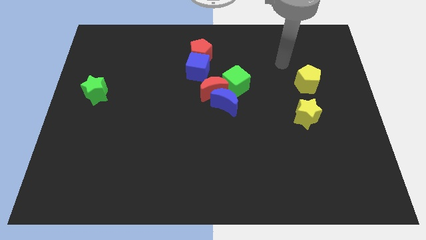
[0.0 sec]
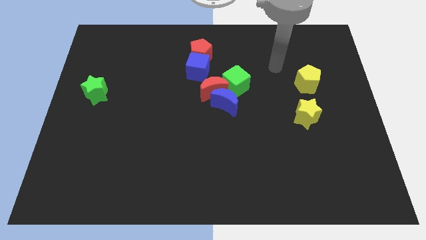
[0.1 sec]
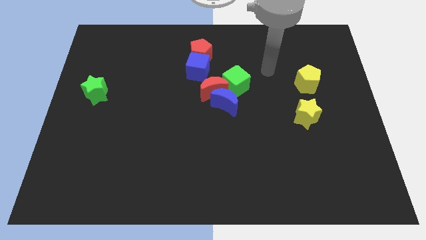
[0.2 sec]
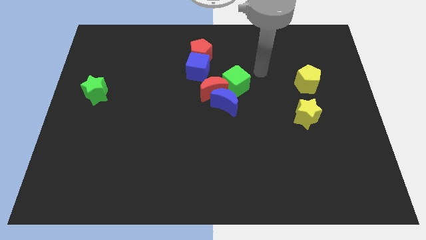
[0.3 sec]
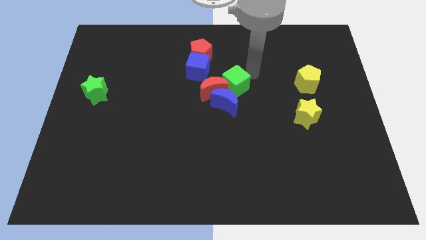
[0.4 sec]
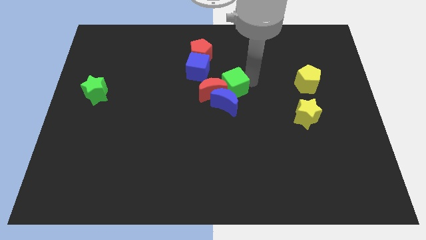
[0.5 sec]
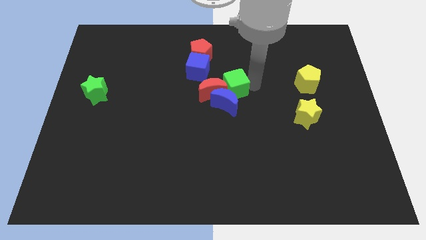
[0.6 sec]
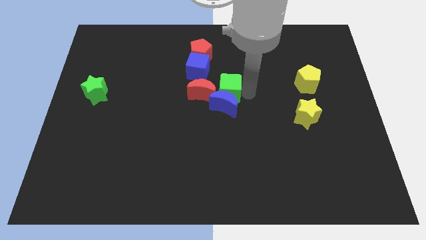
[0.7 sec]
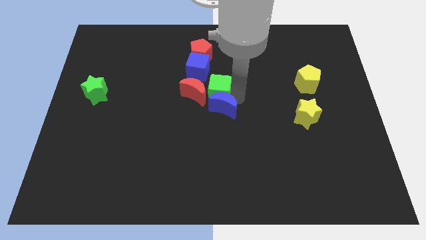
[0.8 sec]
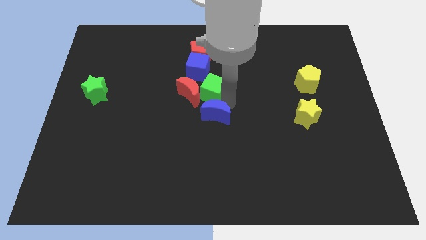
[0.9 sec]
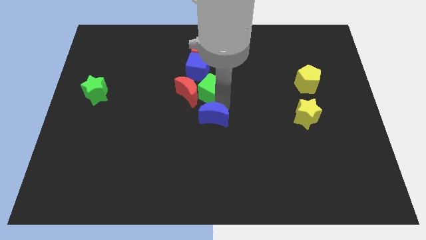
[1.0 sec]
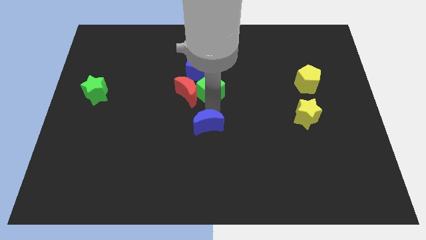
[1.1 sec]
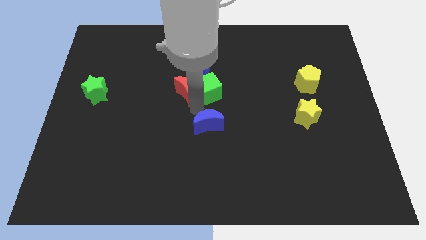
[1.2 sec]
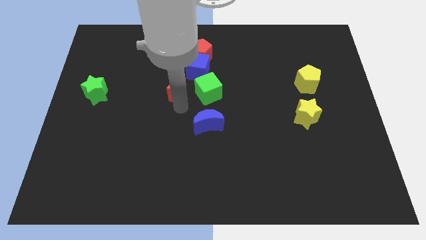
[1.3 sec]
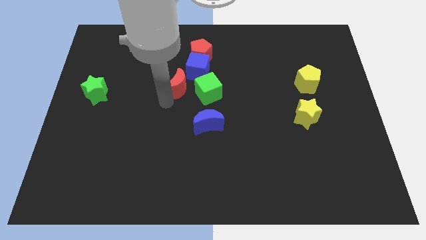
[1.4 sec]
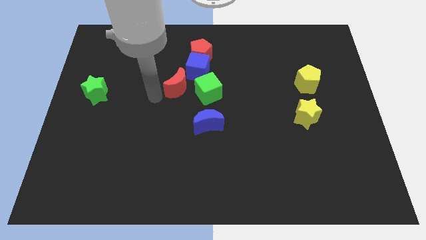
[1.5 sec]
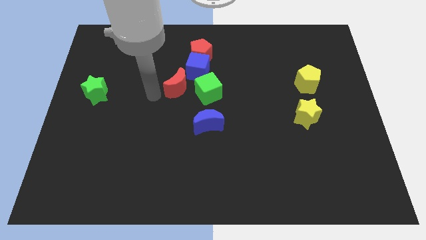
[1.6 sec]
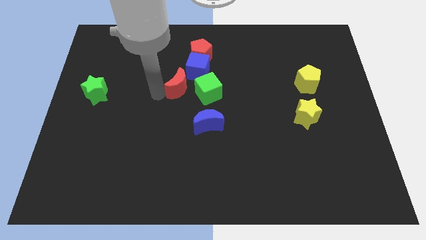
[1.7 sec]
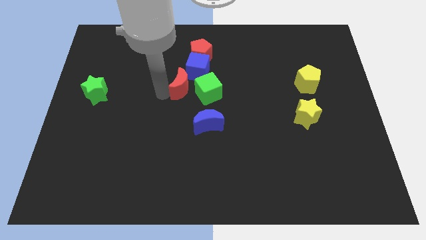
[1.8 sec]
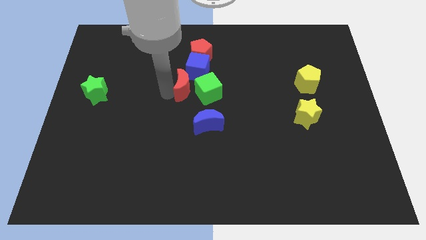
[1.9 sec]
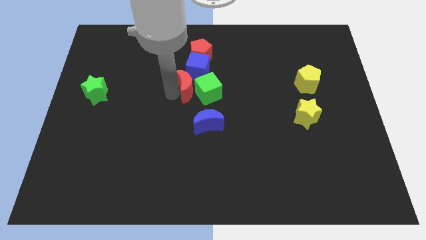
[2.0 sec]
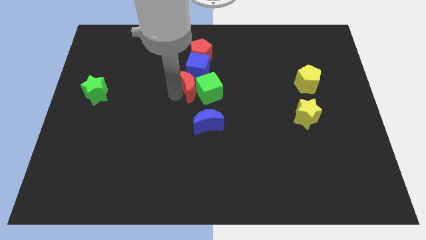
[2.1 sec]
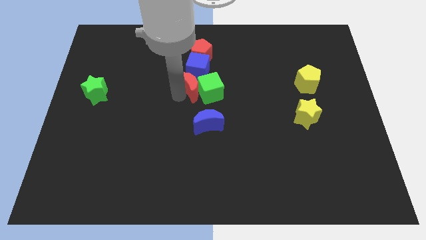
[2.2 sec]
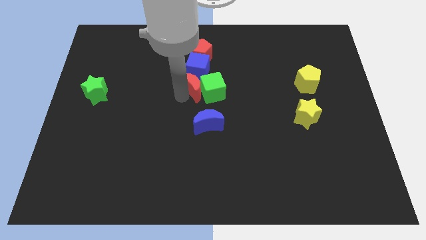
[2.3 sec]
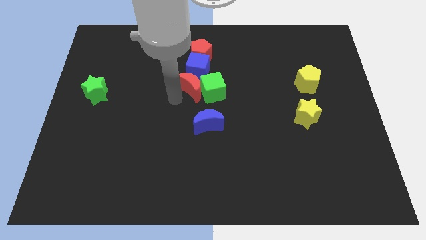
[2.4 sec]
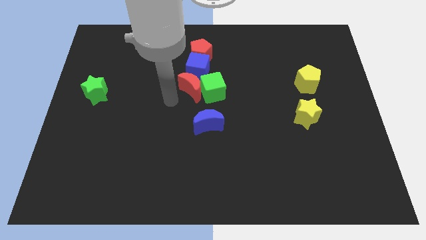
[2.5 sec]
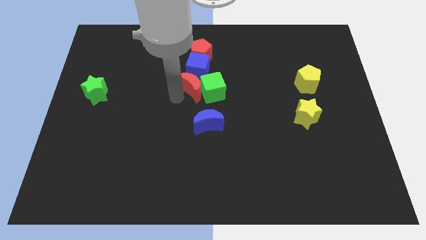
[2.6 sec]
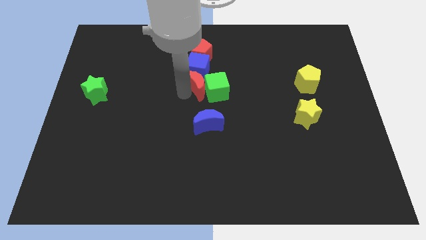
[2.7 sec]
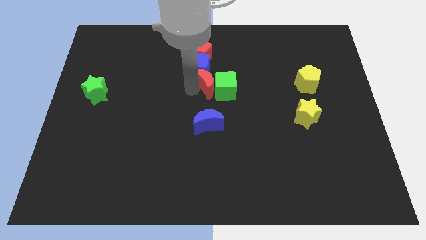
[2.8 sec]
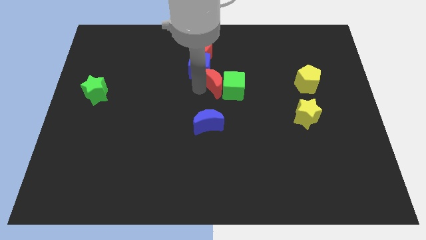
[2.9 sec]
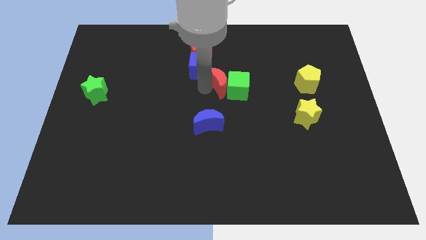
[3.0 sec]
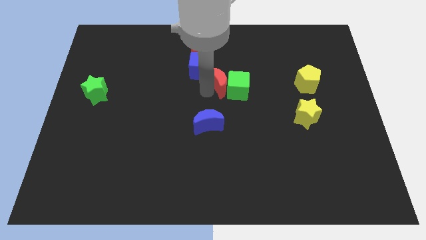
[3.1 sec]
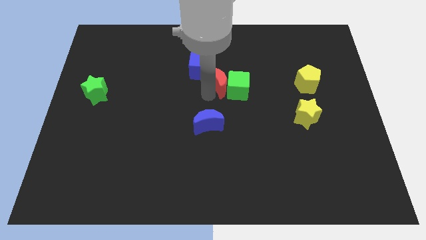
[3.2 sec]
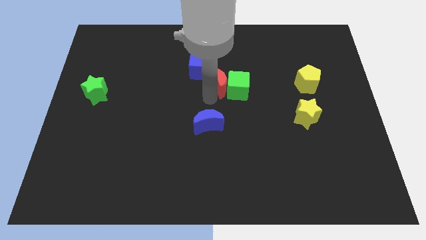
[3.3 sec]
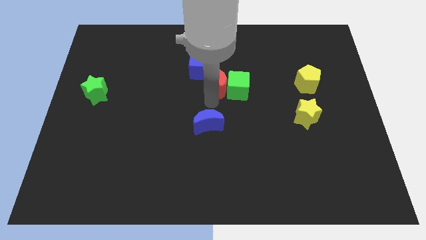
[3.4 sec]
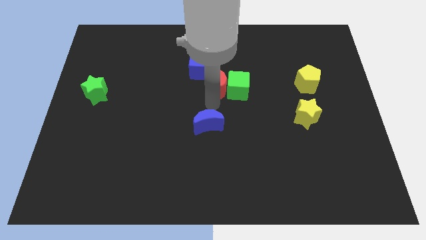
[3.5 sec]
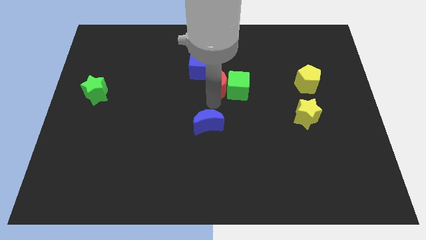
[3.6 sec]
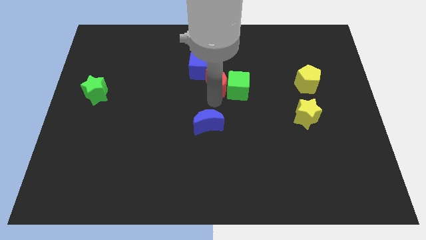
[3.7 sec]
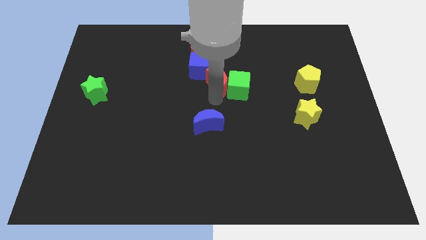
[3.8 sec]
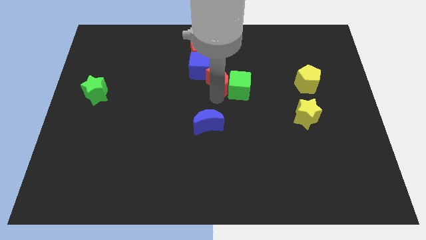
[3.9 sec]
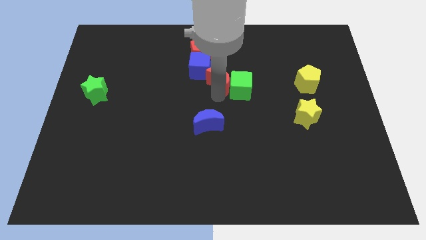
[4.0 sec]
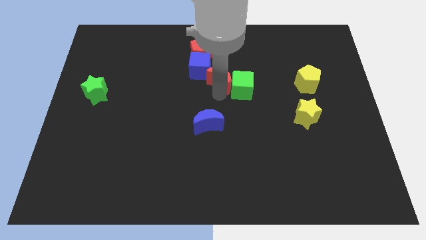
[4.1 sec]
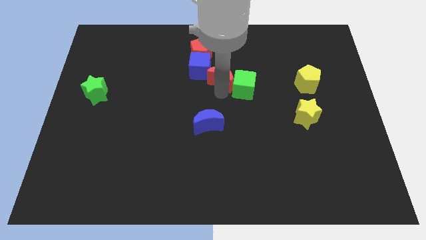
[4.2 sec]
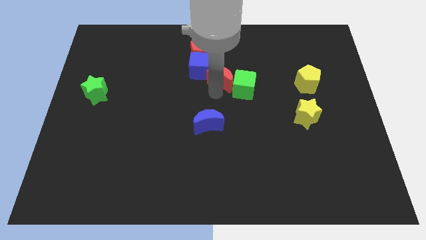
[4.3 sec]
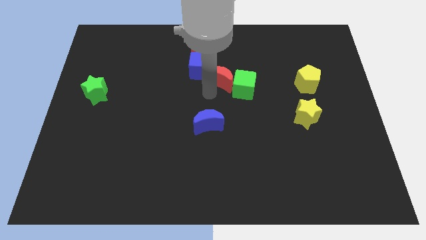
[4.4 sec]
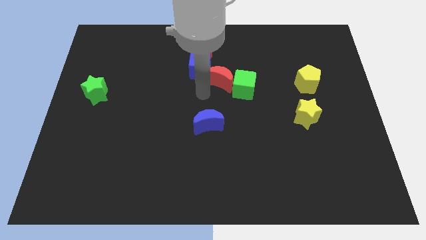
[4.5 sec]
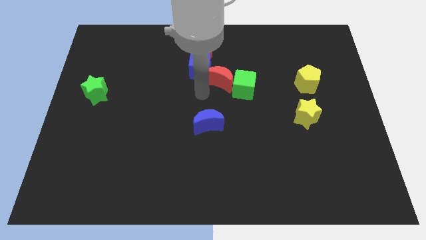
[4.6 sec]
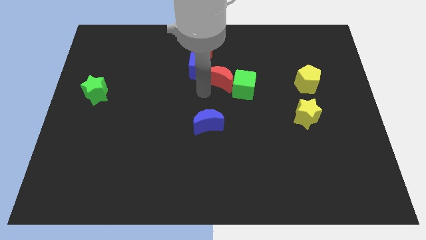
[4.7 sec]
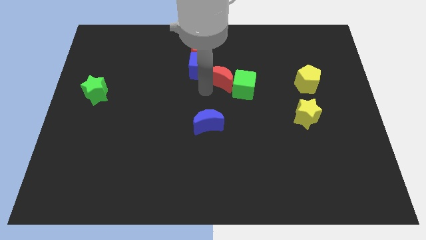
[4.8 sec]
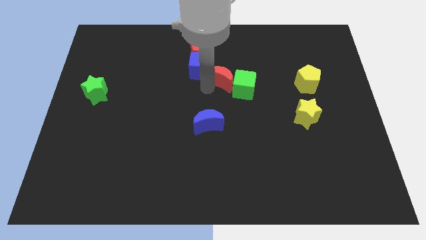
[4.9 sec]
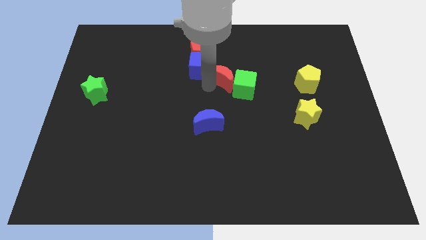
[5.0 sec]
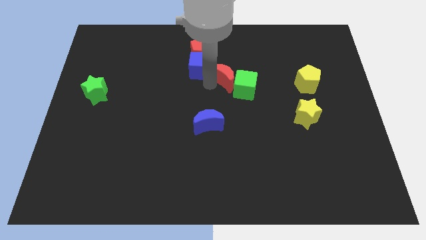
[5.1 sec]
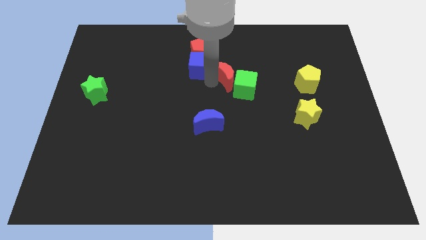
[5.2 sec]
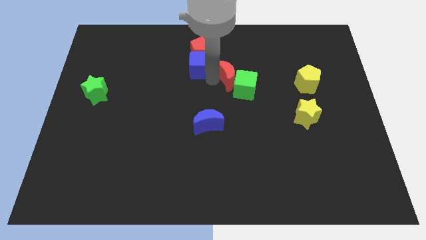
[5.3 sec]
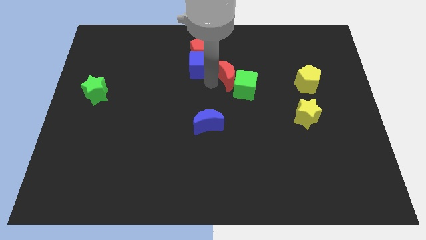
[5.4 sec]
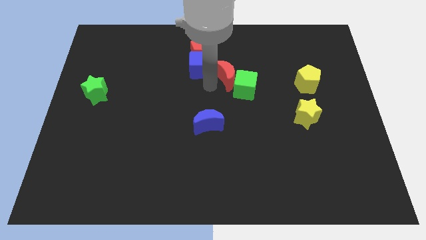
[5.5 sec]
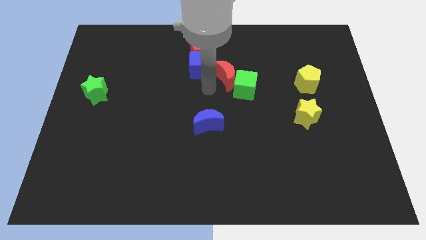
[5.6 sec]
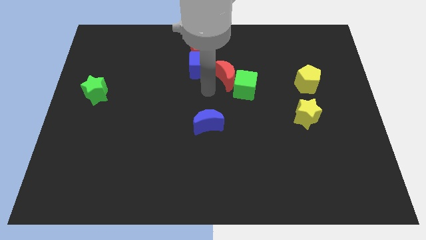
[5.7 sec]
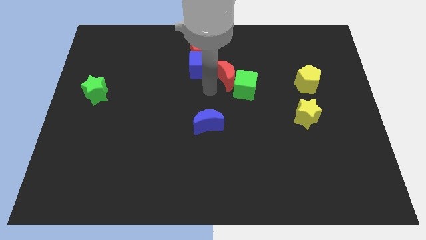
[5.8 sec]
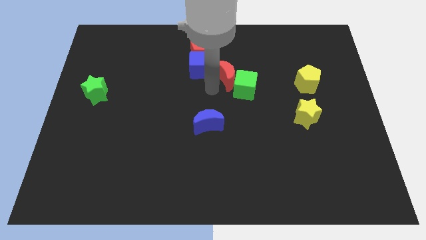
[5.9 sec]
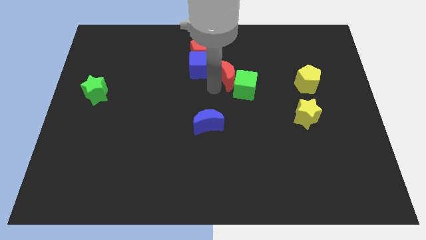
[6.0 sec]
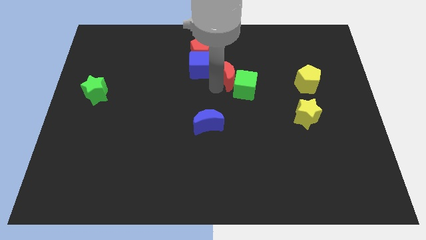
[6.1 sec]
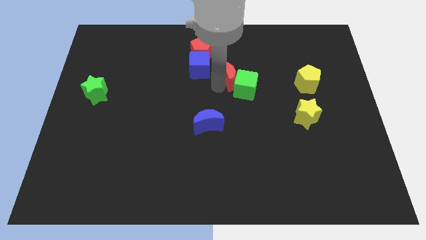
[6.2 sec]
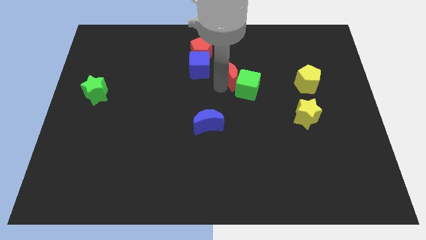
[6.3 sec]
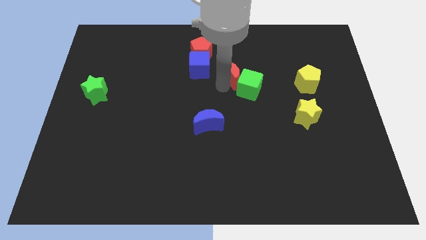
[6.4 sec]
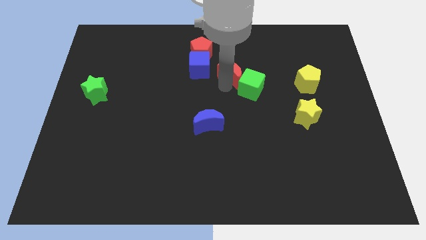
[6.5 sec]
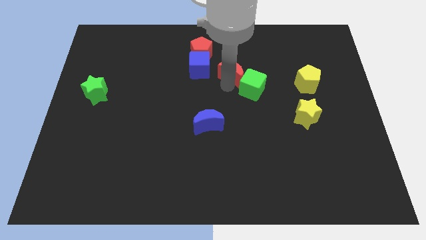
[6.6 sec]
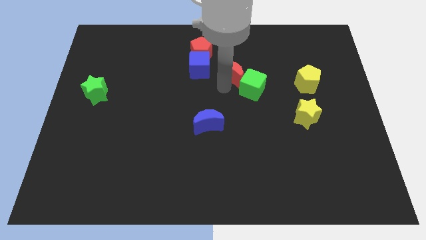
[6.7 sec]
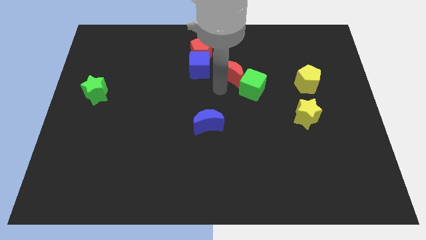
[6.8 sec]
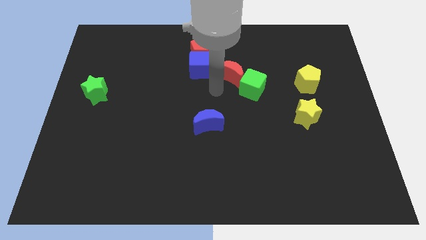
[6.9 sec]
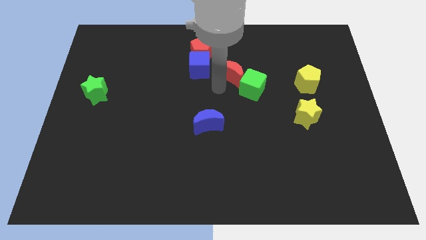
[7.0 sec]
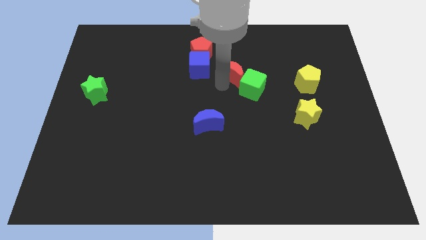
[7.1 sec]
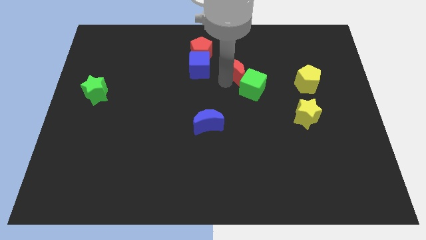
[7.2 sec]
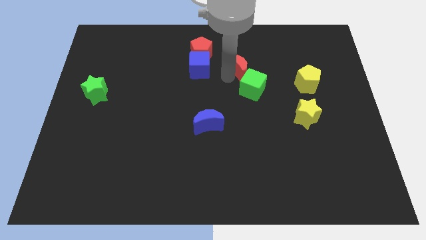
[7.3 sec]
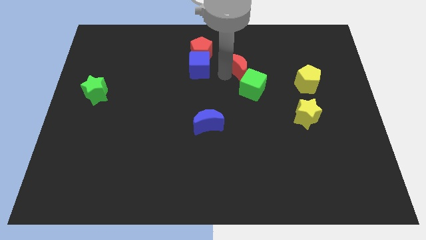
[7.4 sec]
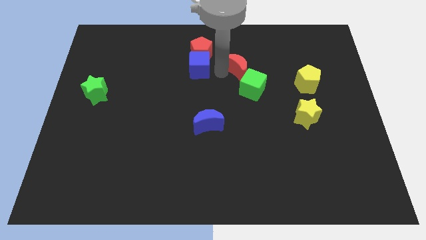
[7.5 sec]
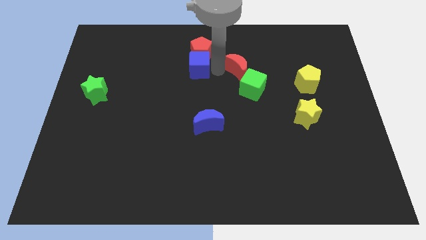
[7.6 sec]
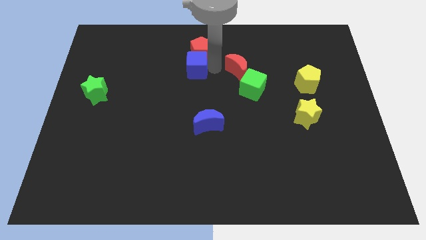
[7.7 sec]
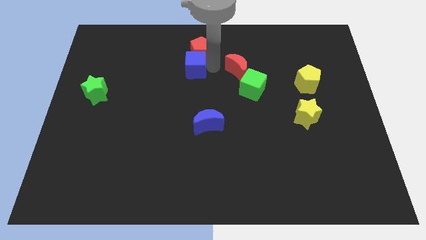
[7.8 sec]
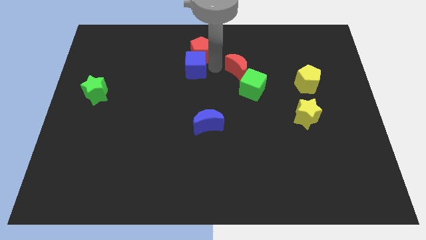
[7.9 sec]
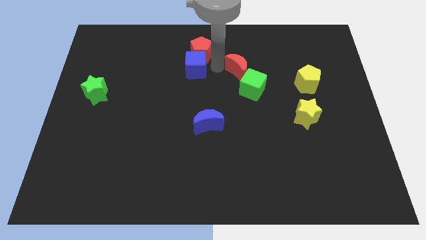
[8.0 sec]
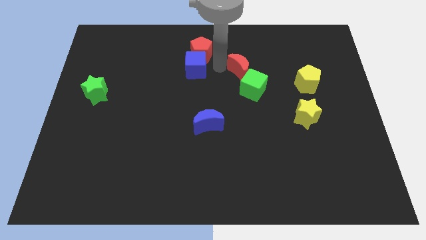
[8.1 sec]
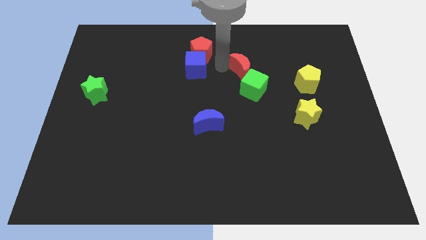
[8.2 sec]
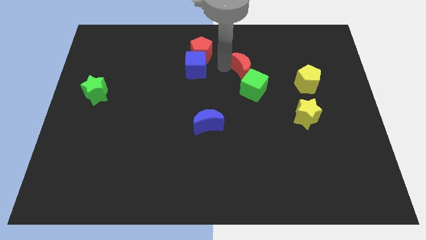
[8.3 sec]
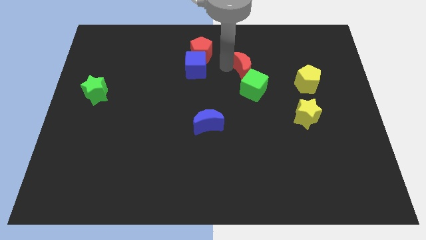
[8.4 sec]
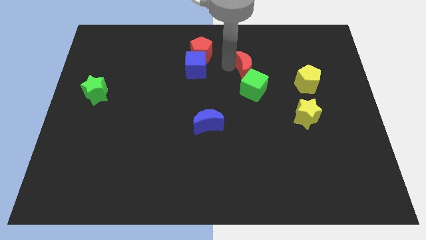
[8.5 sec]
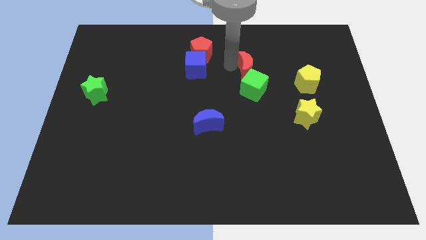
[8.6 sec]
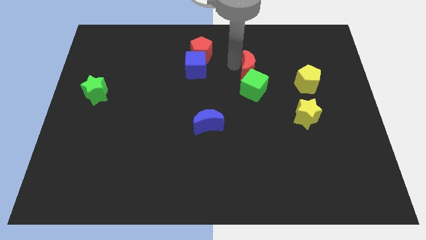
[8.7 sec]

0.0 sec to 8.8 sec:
move the red moon a little right
